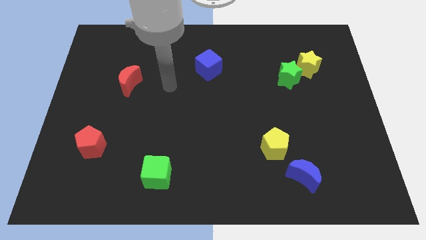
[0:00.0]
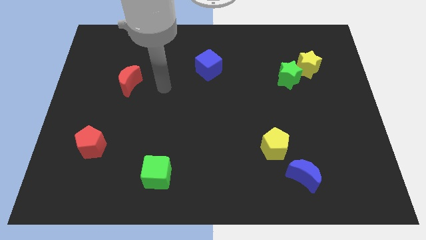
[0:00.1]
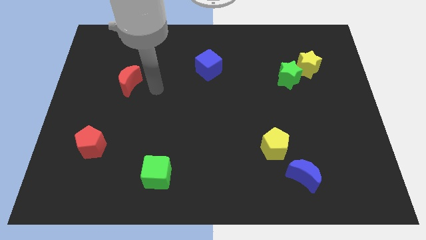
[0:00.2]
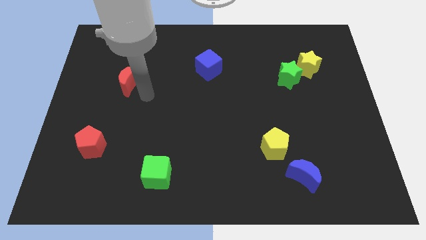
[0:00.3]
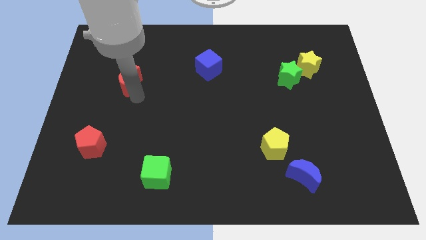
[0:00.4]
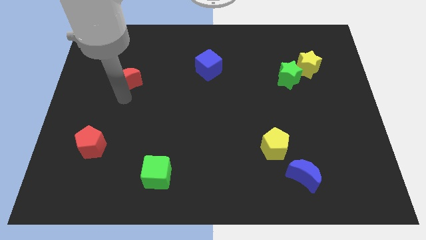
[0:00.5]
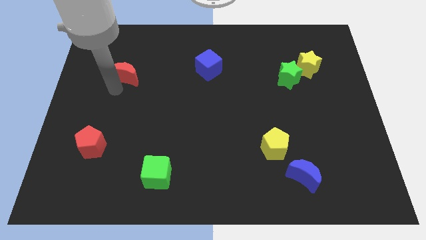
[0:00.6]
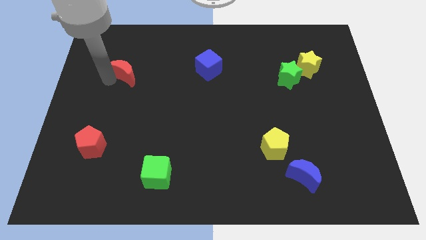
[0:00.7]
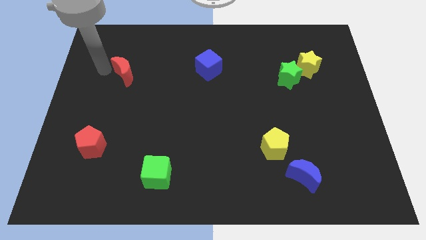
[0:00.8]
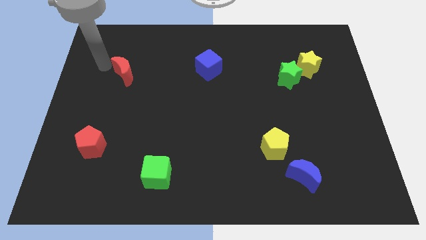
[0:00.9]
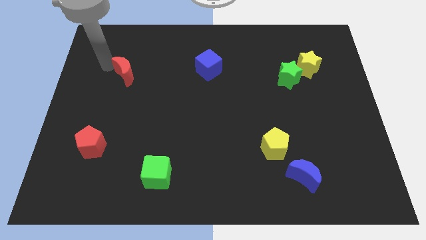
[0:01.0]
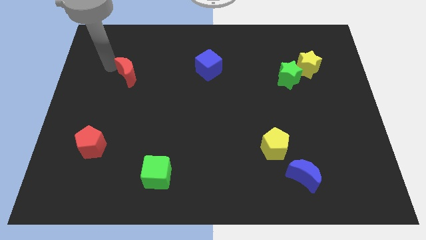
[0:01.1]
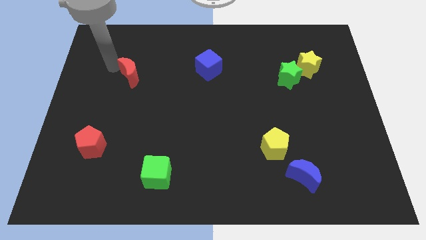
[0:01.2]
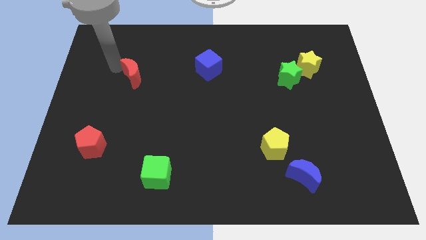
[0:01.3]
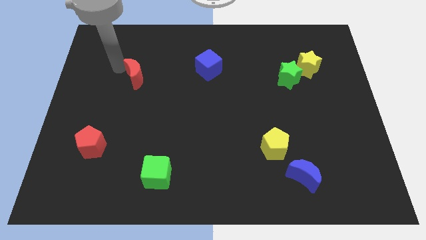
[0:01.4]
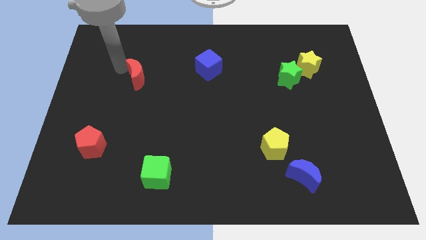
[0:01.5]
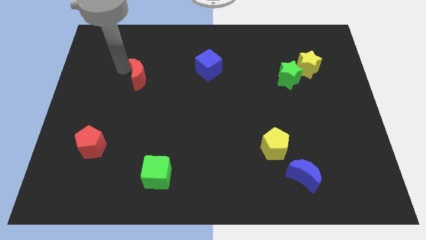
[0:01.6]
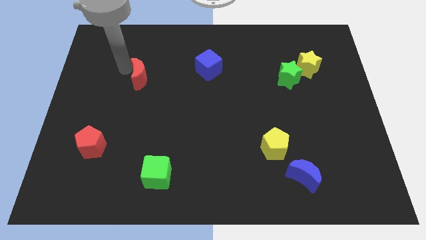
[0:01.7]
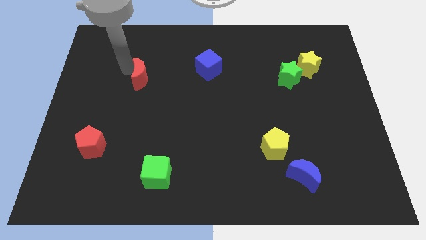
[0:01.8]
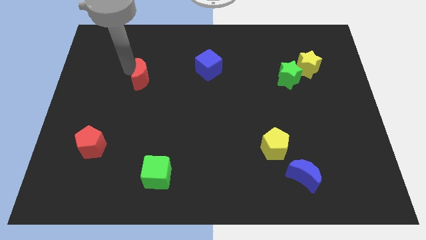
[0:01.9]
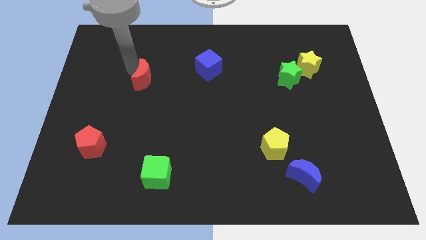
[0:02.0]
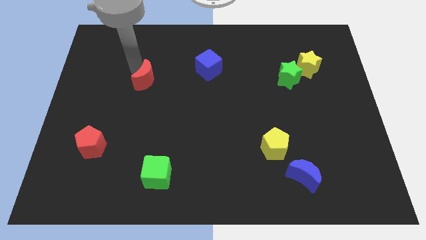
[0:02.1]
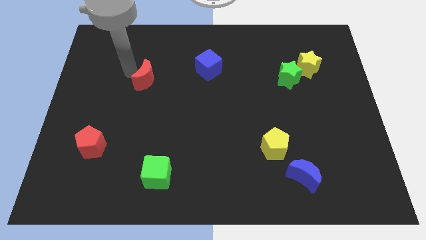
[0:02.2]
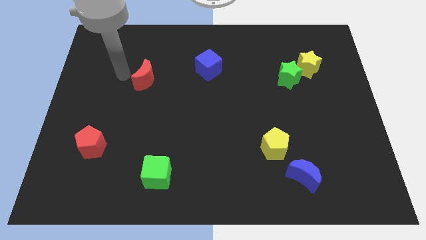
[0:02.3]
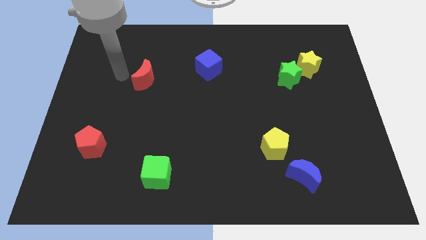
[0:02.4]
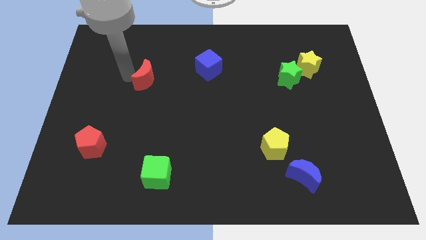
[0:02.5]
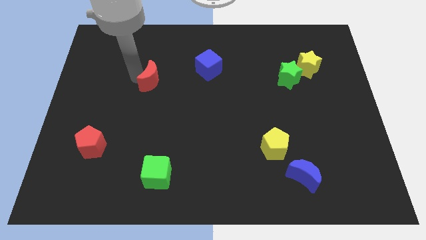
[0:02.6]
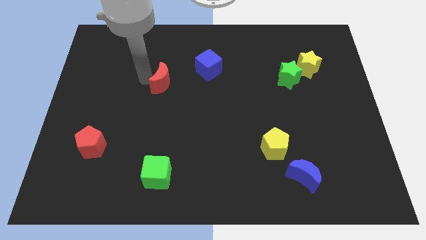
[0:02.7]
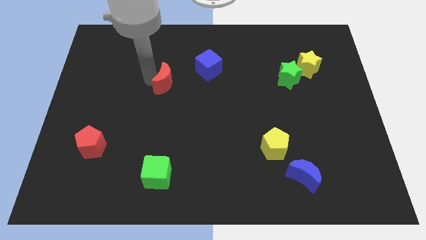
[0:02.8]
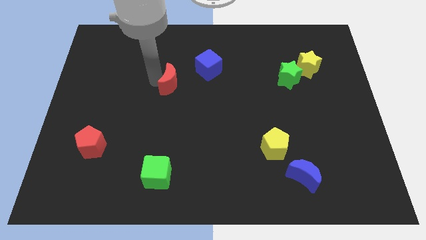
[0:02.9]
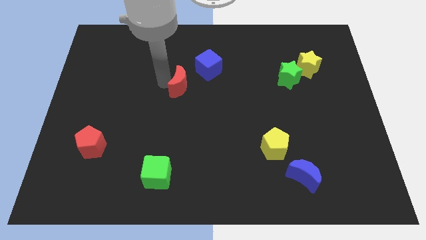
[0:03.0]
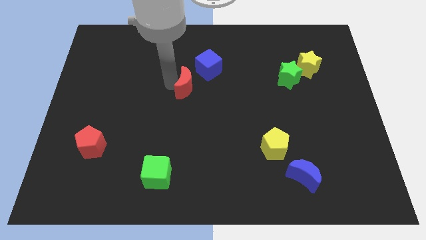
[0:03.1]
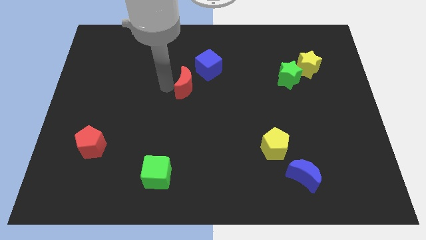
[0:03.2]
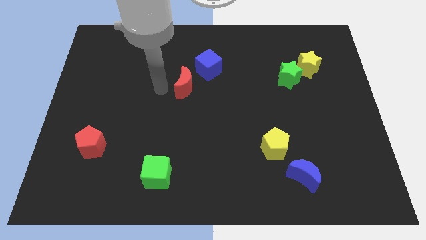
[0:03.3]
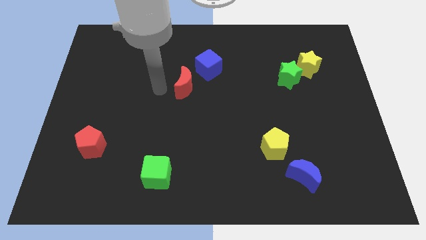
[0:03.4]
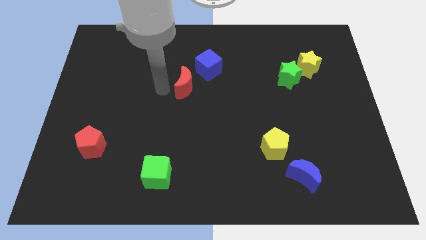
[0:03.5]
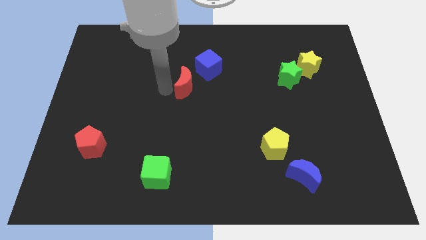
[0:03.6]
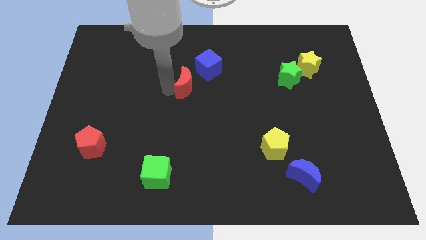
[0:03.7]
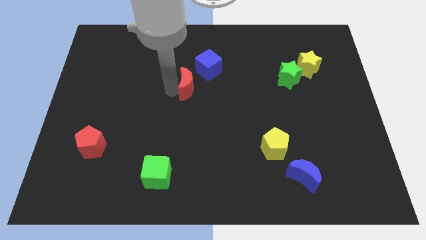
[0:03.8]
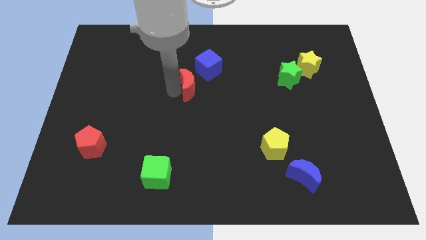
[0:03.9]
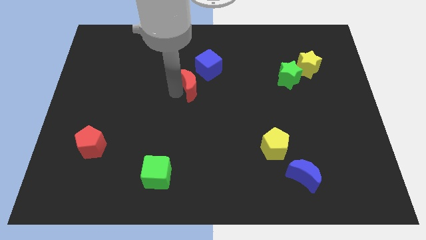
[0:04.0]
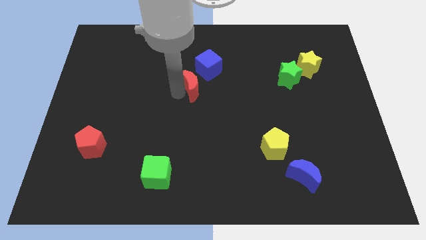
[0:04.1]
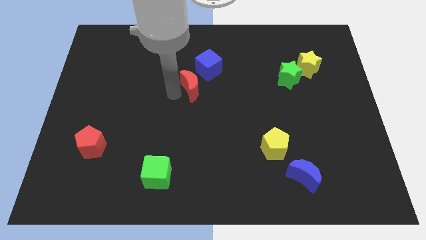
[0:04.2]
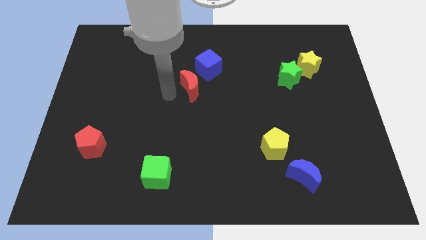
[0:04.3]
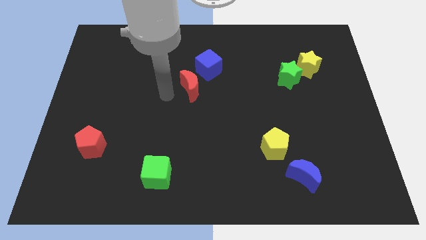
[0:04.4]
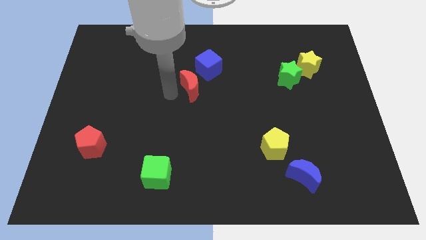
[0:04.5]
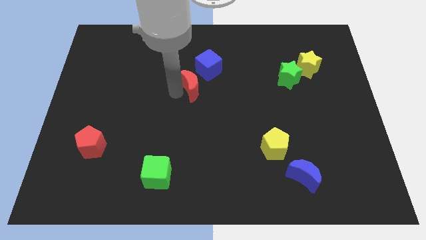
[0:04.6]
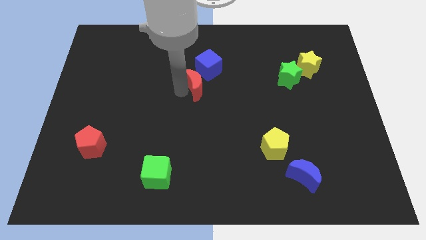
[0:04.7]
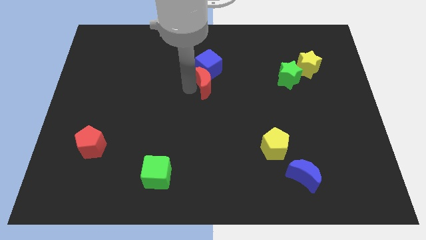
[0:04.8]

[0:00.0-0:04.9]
slide the red moon to the bottom right side of the blue cube

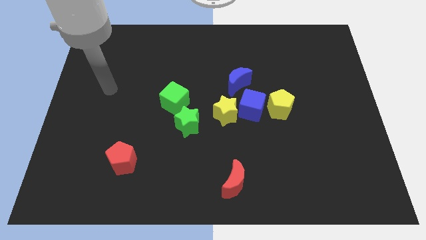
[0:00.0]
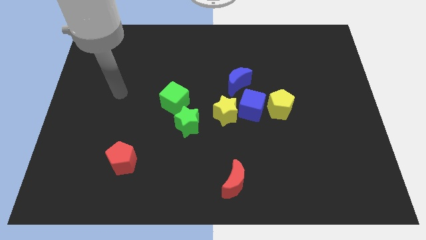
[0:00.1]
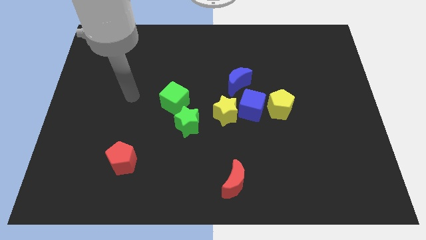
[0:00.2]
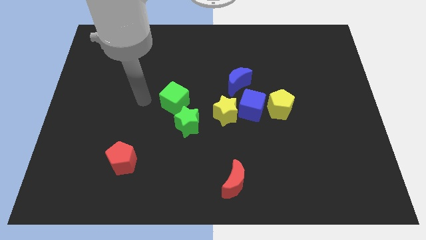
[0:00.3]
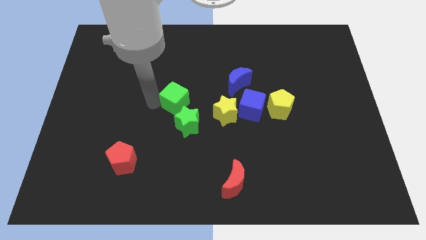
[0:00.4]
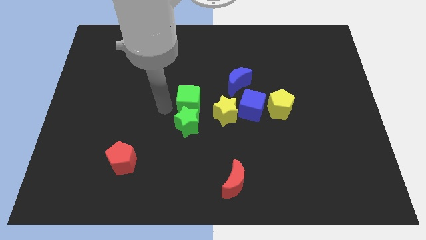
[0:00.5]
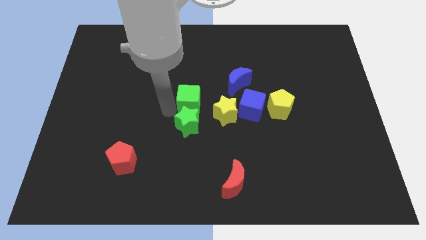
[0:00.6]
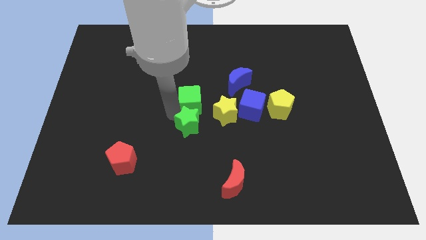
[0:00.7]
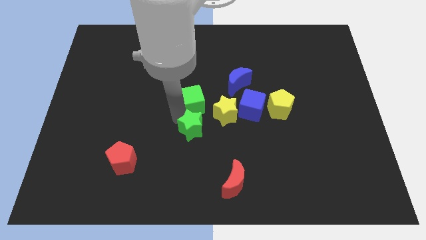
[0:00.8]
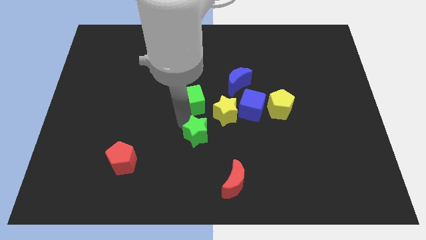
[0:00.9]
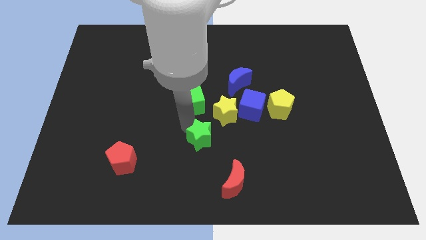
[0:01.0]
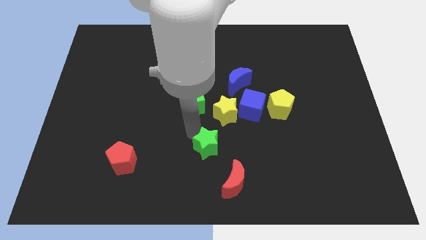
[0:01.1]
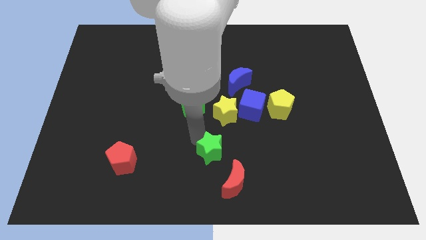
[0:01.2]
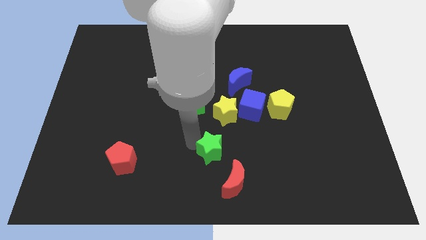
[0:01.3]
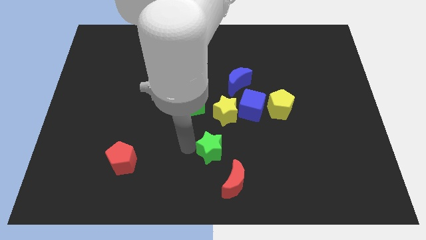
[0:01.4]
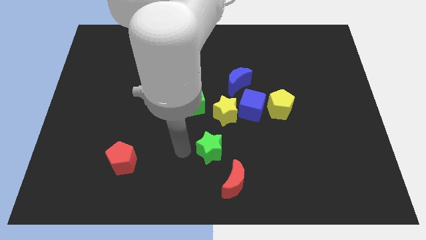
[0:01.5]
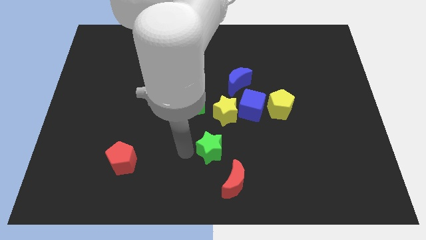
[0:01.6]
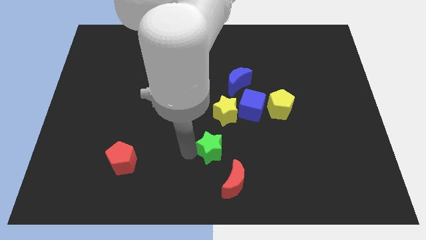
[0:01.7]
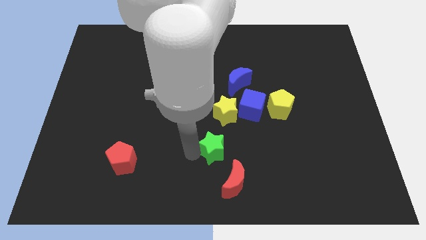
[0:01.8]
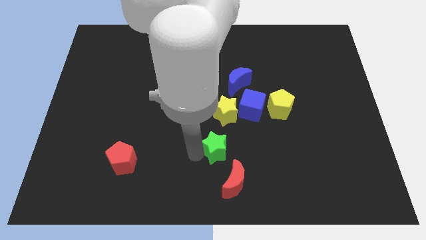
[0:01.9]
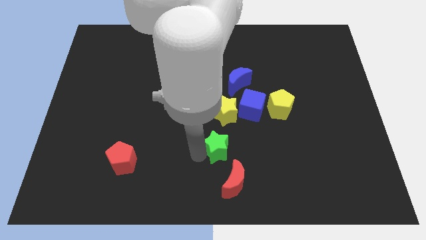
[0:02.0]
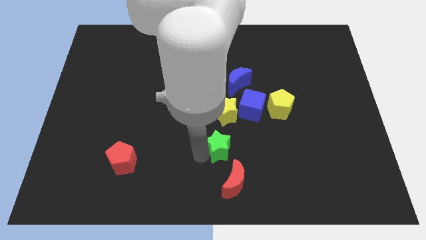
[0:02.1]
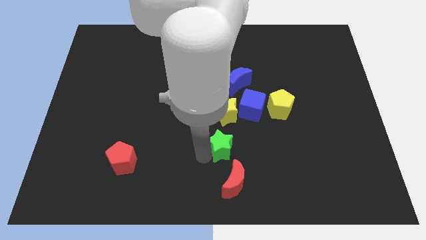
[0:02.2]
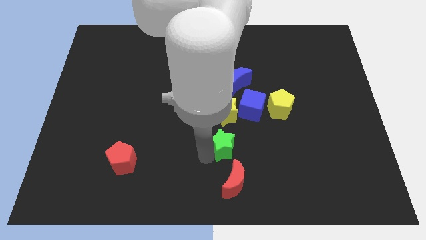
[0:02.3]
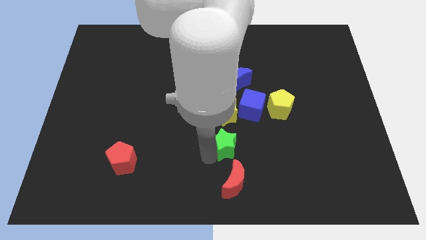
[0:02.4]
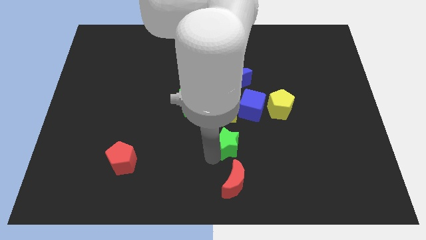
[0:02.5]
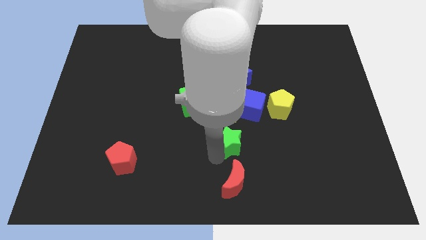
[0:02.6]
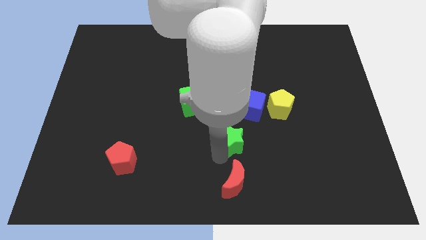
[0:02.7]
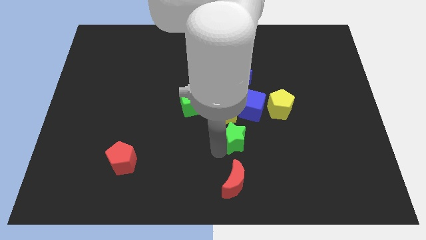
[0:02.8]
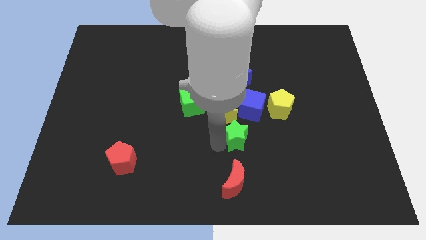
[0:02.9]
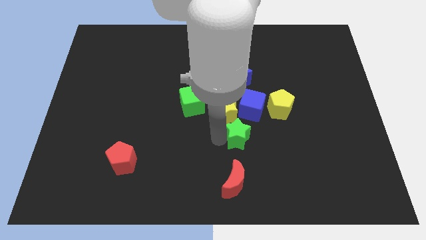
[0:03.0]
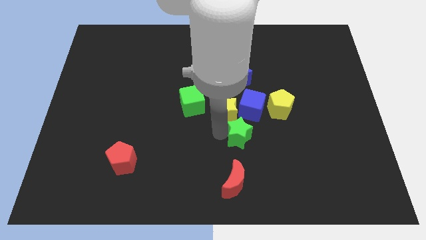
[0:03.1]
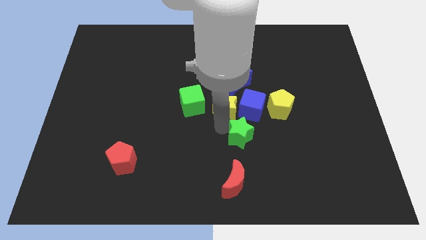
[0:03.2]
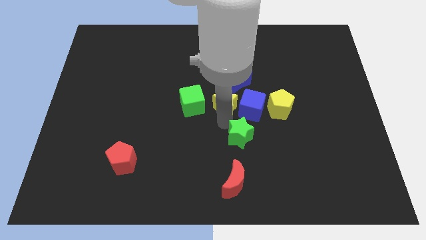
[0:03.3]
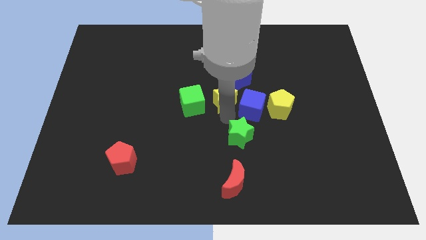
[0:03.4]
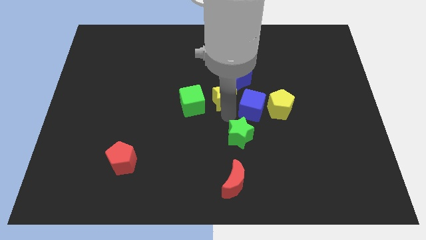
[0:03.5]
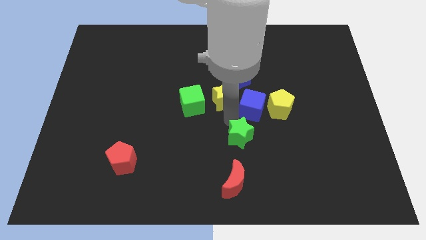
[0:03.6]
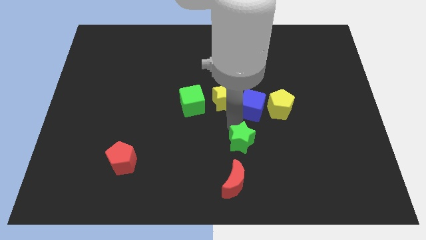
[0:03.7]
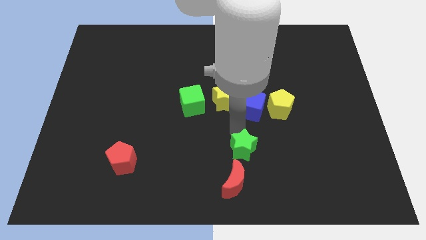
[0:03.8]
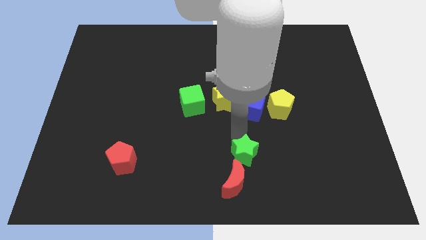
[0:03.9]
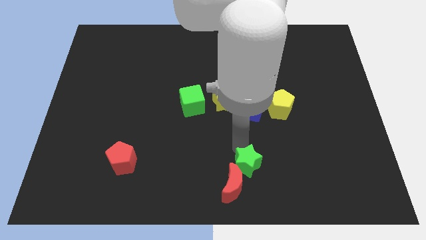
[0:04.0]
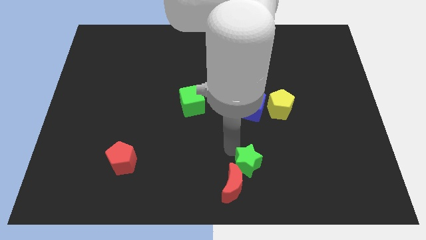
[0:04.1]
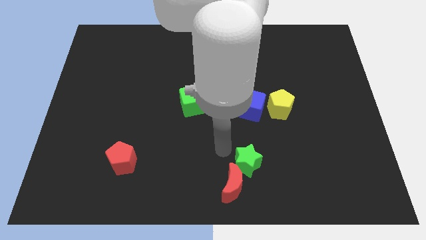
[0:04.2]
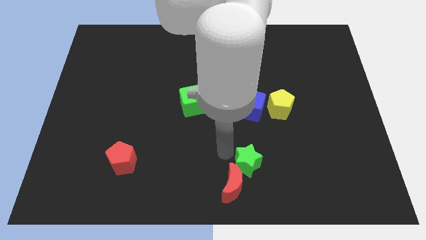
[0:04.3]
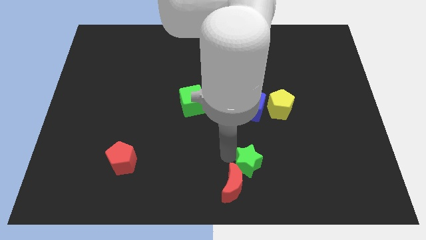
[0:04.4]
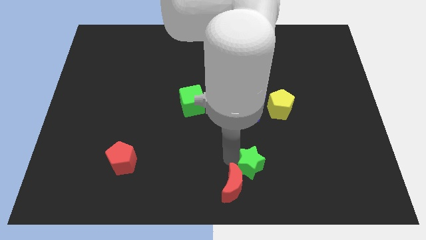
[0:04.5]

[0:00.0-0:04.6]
push the green star right of the red moon
